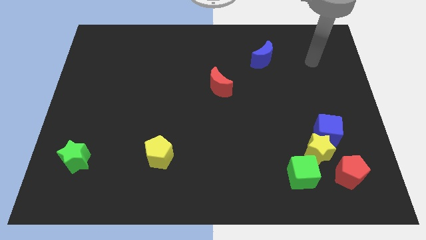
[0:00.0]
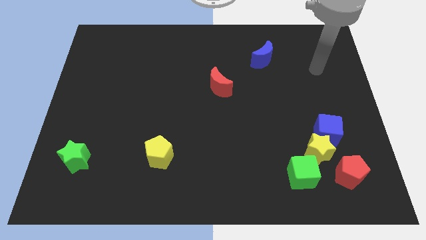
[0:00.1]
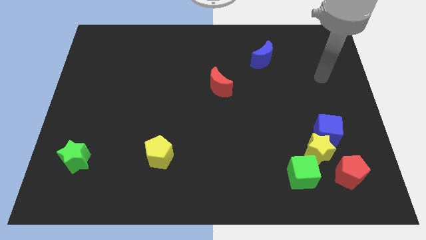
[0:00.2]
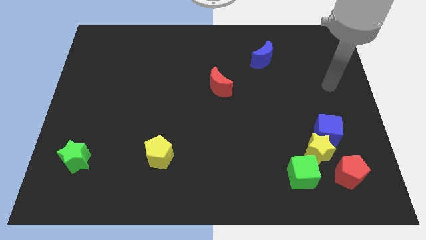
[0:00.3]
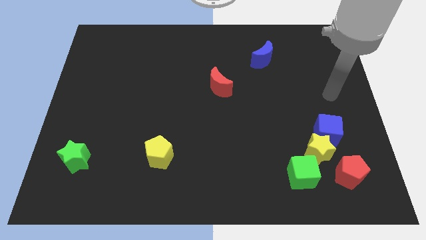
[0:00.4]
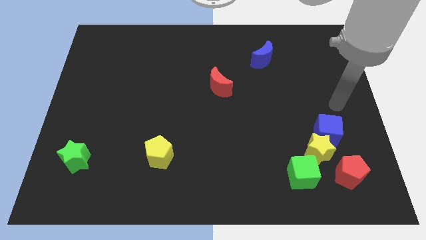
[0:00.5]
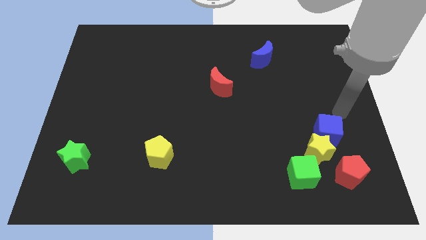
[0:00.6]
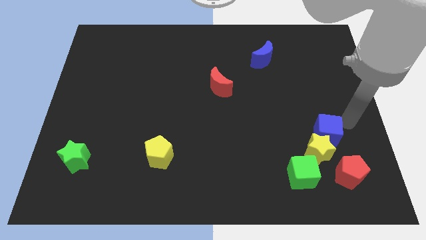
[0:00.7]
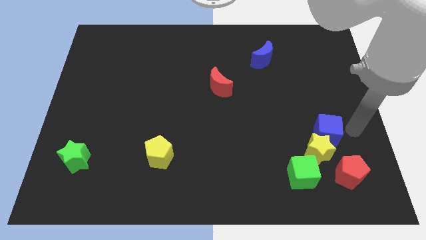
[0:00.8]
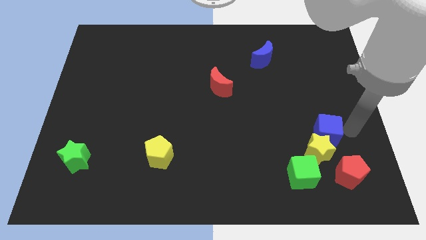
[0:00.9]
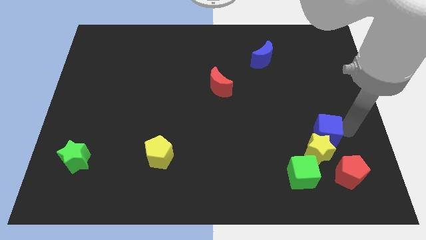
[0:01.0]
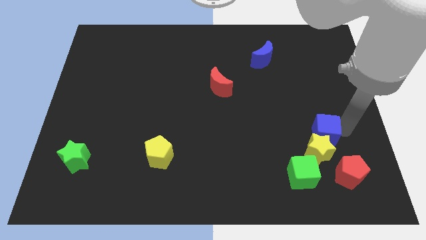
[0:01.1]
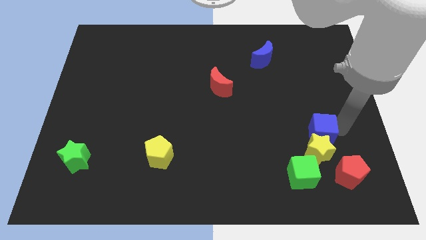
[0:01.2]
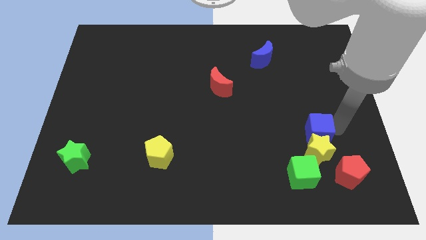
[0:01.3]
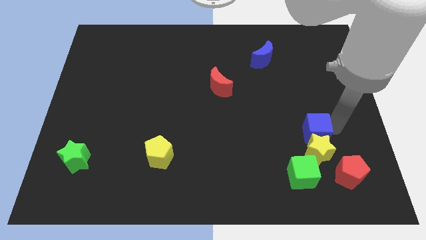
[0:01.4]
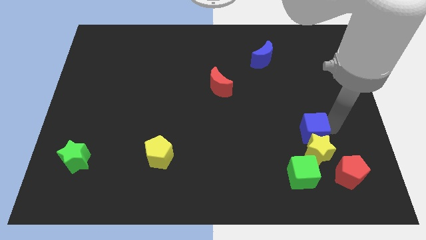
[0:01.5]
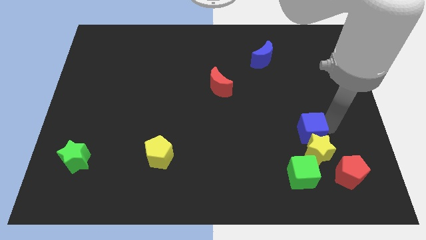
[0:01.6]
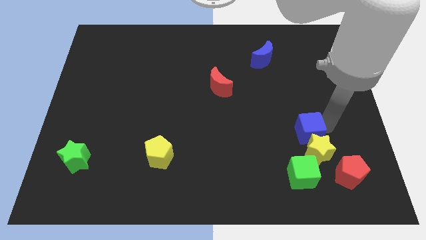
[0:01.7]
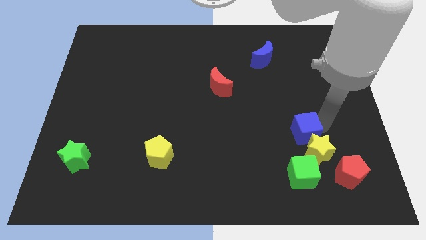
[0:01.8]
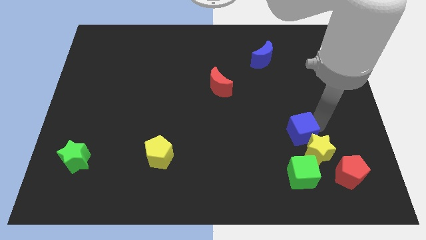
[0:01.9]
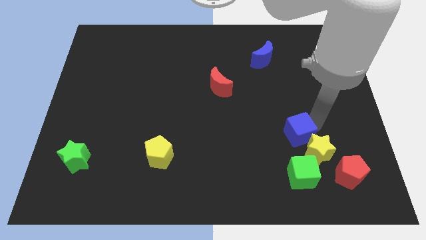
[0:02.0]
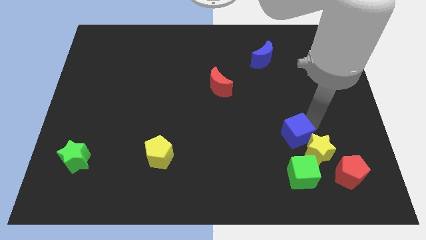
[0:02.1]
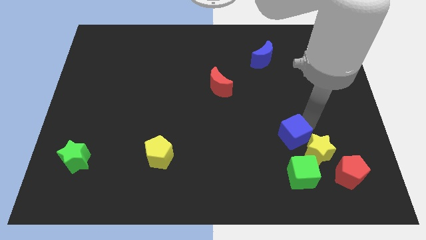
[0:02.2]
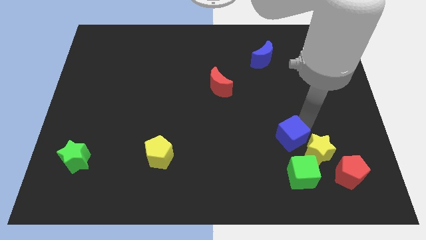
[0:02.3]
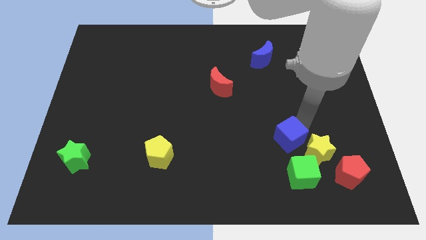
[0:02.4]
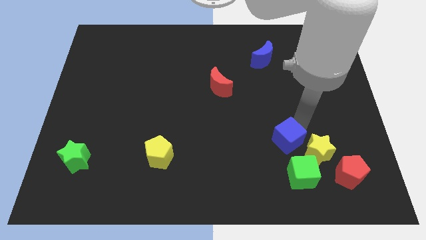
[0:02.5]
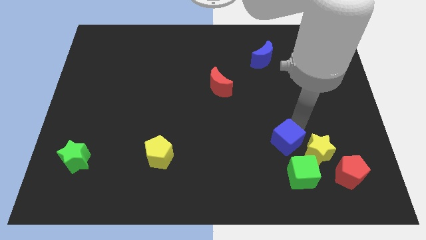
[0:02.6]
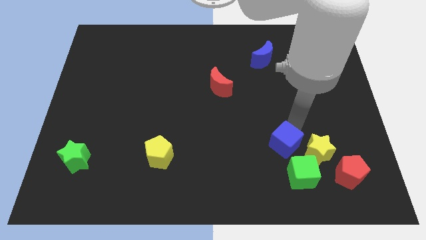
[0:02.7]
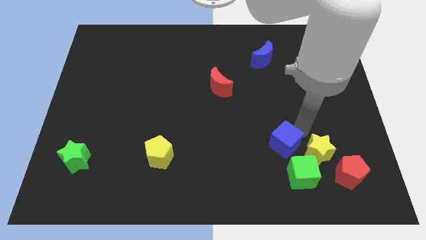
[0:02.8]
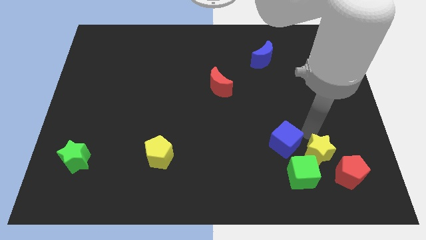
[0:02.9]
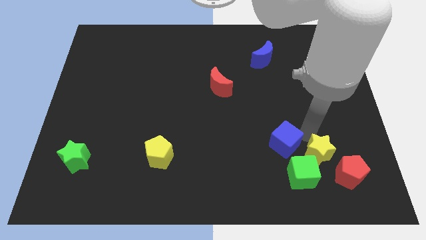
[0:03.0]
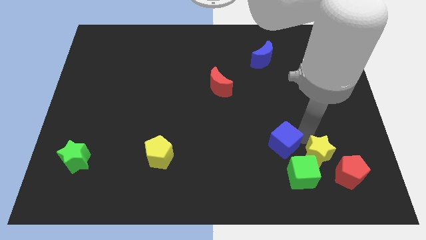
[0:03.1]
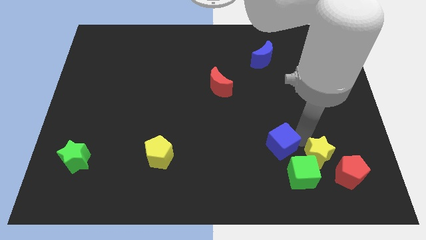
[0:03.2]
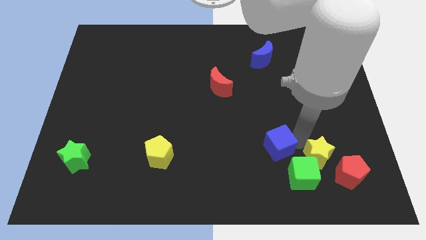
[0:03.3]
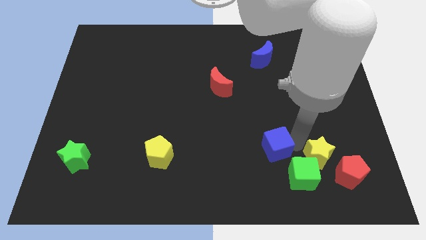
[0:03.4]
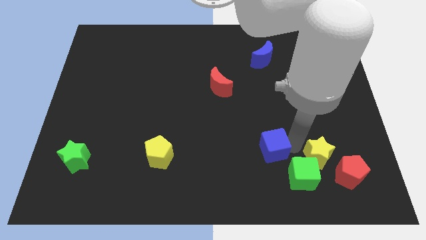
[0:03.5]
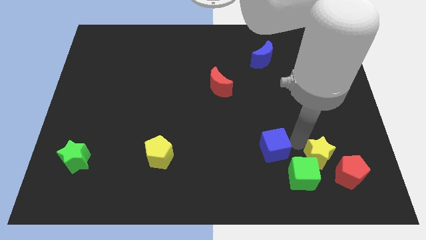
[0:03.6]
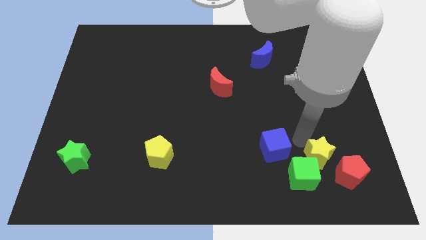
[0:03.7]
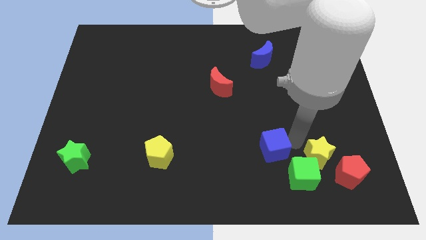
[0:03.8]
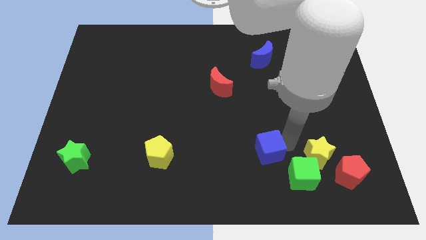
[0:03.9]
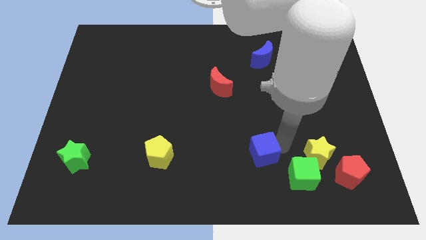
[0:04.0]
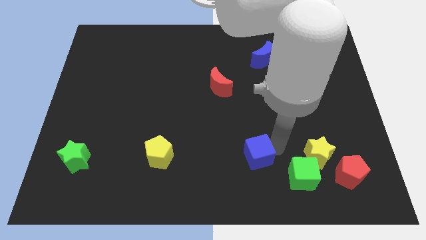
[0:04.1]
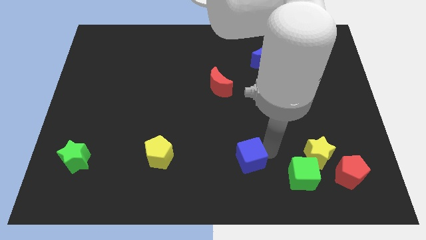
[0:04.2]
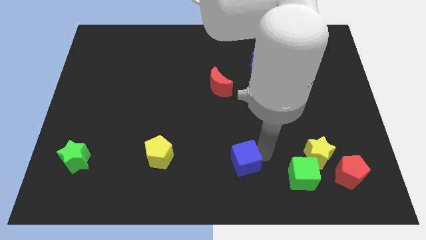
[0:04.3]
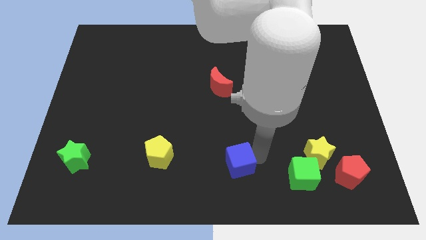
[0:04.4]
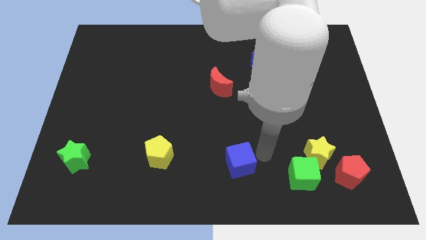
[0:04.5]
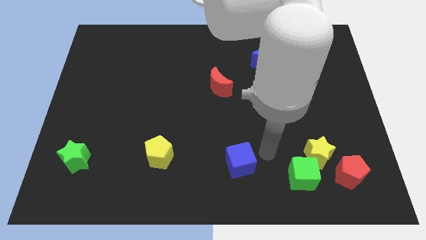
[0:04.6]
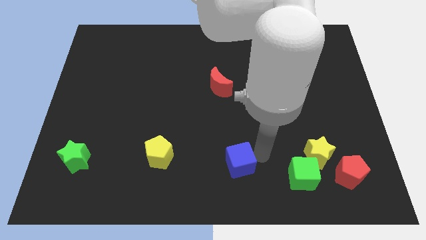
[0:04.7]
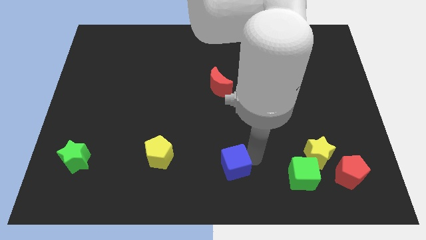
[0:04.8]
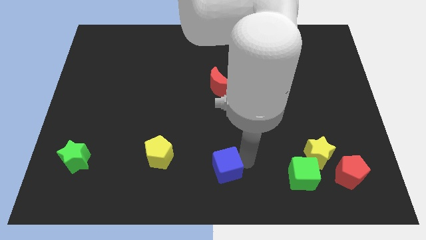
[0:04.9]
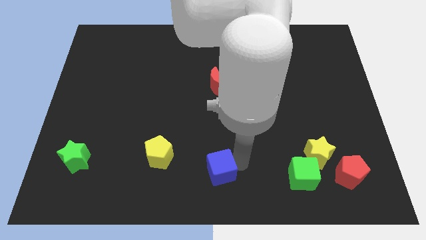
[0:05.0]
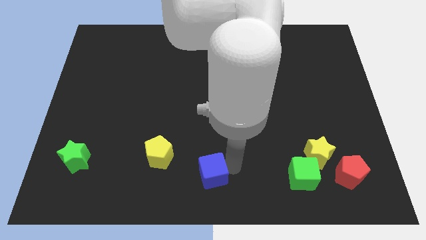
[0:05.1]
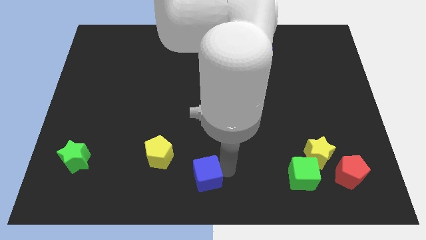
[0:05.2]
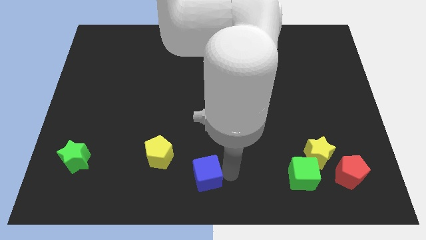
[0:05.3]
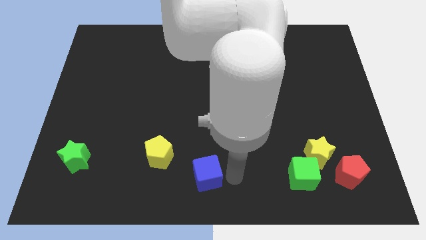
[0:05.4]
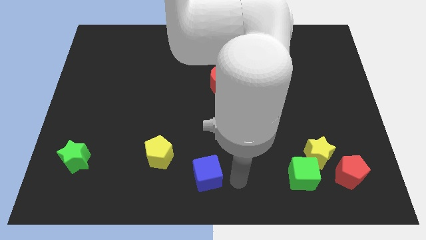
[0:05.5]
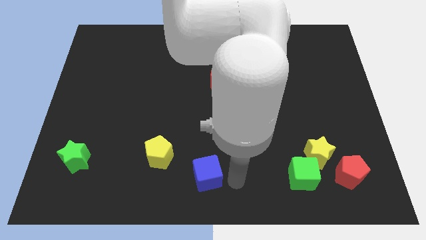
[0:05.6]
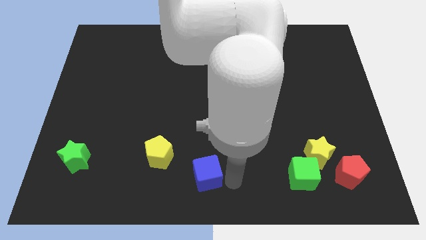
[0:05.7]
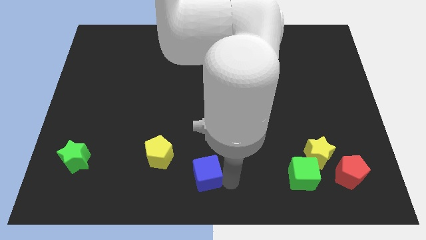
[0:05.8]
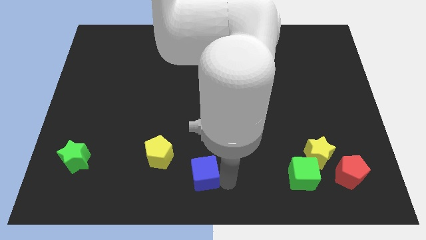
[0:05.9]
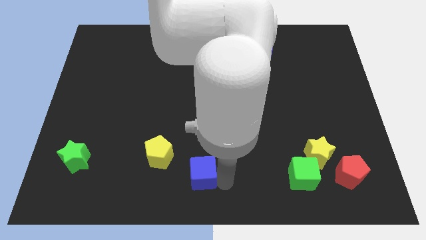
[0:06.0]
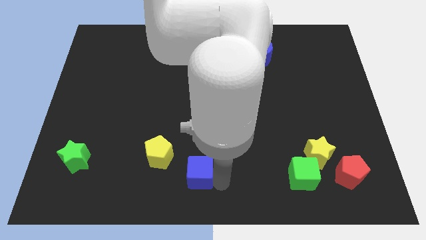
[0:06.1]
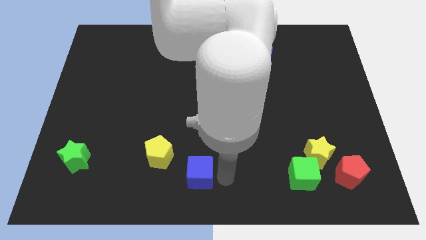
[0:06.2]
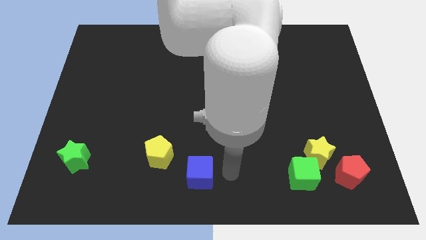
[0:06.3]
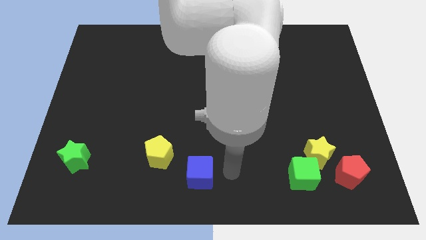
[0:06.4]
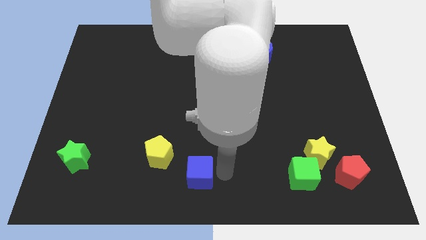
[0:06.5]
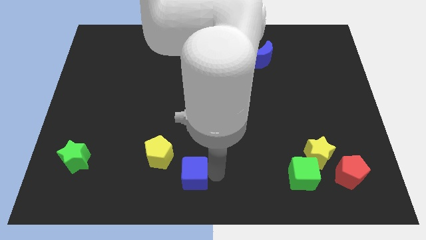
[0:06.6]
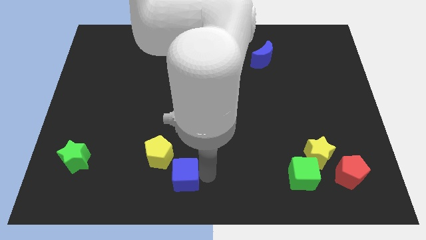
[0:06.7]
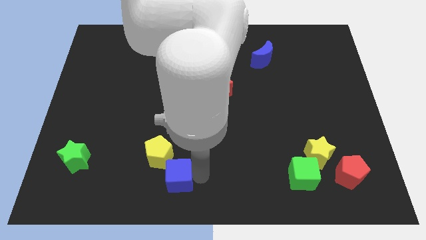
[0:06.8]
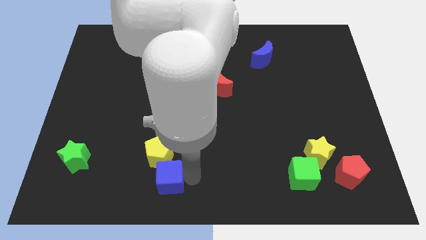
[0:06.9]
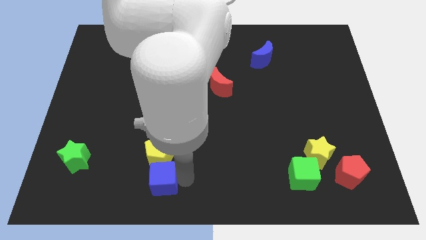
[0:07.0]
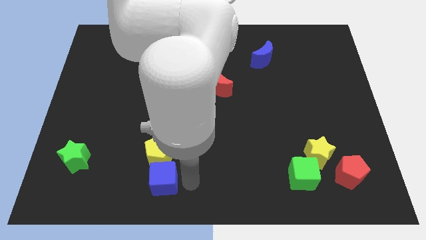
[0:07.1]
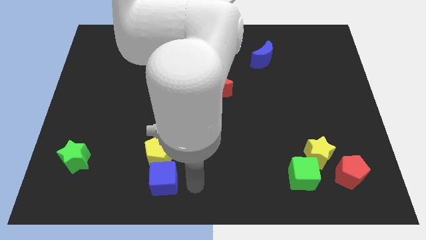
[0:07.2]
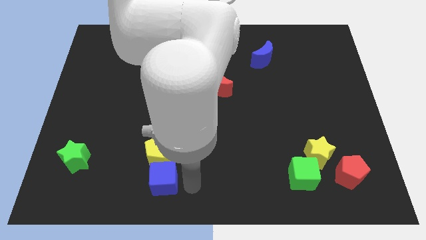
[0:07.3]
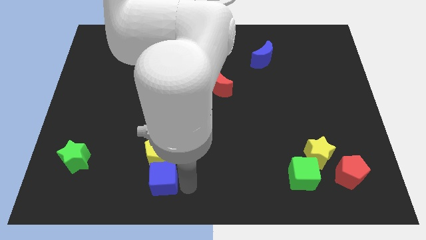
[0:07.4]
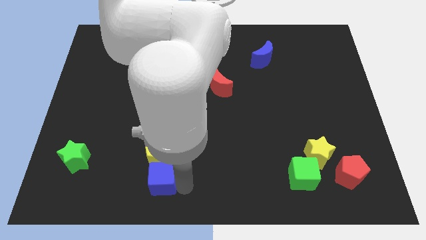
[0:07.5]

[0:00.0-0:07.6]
move the blue cube to the bottom left side of the yellow pentagon
